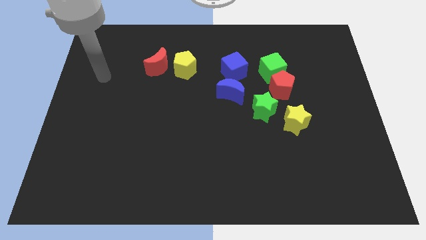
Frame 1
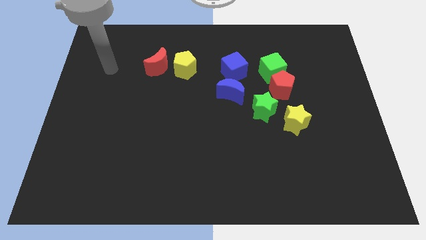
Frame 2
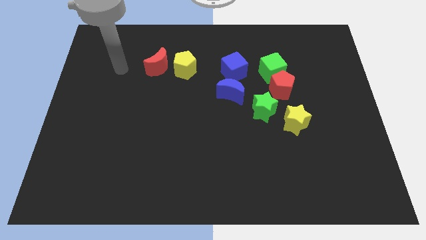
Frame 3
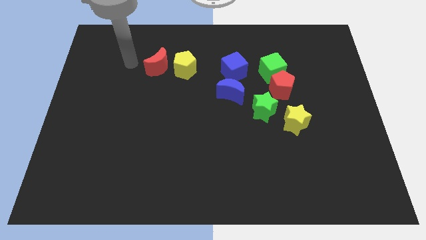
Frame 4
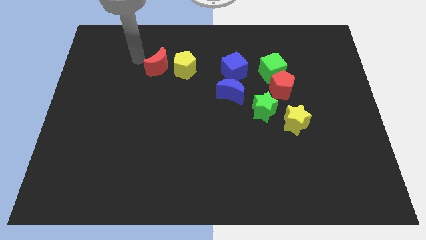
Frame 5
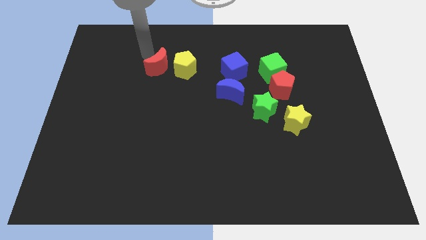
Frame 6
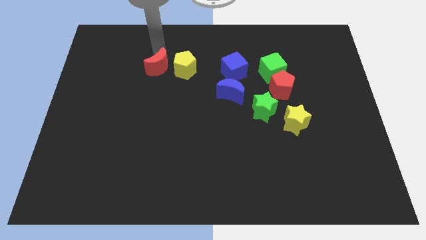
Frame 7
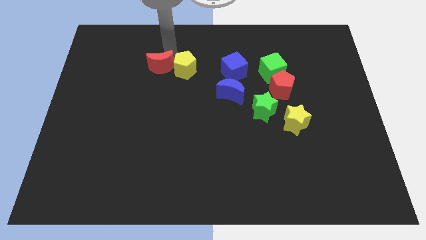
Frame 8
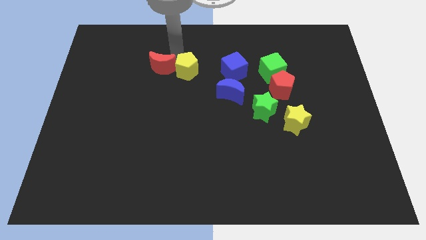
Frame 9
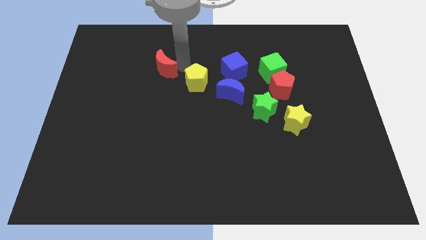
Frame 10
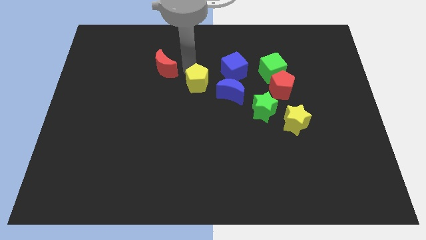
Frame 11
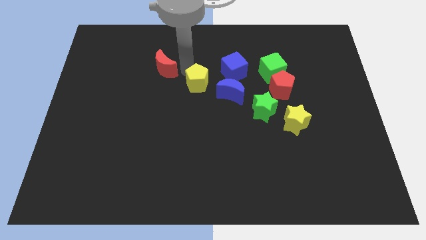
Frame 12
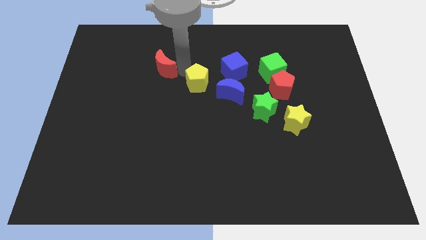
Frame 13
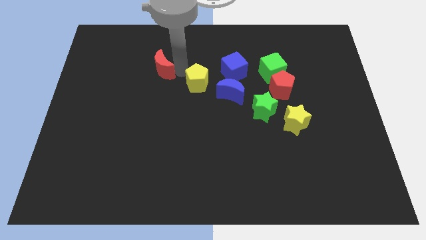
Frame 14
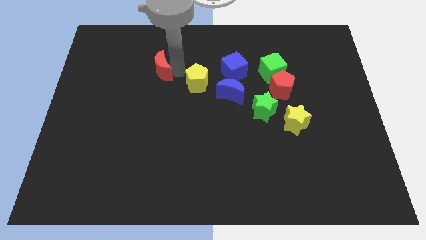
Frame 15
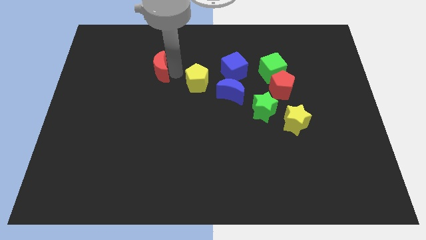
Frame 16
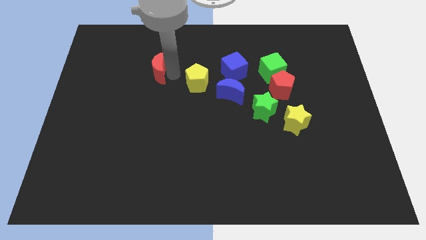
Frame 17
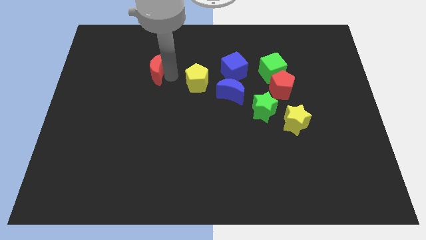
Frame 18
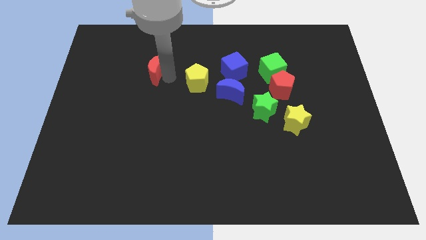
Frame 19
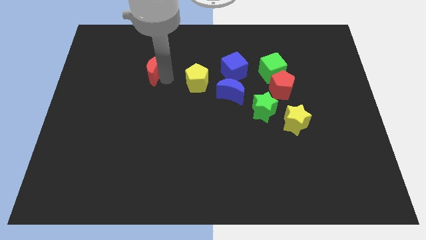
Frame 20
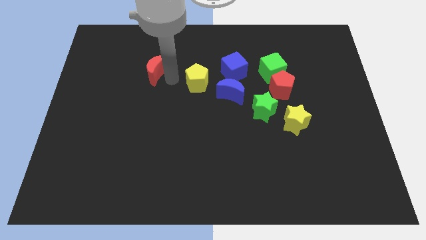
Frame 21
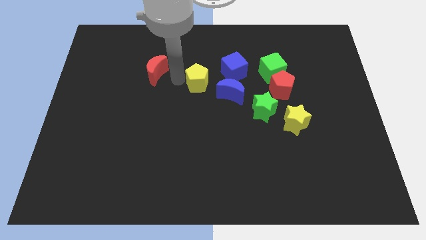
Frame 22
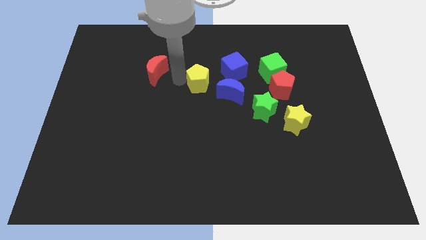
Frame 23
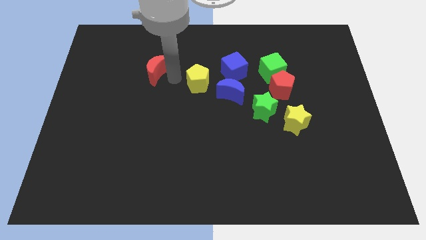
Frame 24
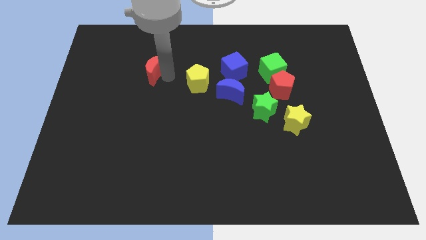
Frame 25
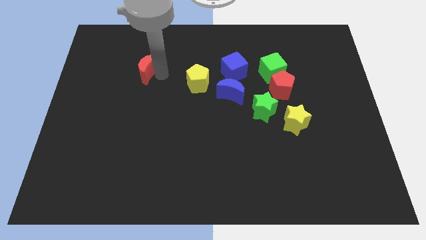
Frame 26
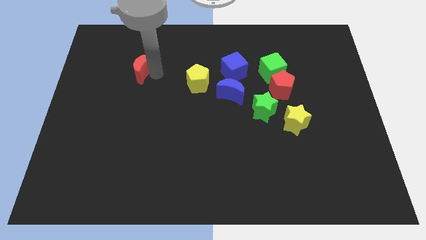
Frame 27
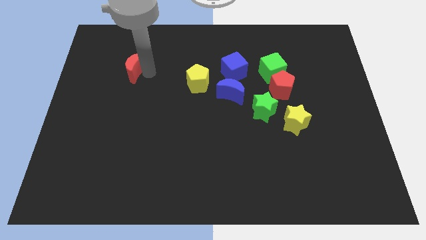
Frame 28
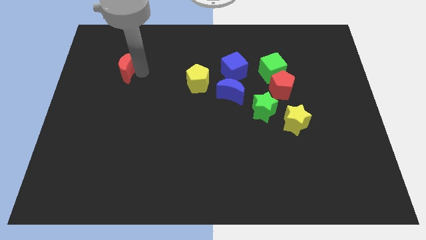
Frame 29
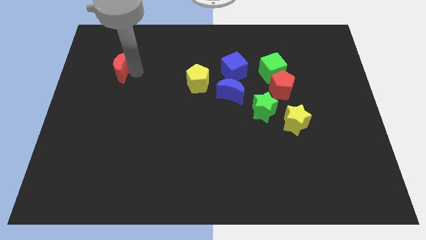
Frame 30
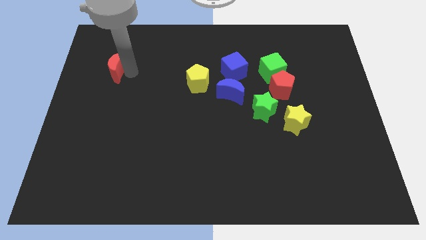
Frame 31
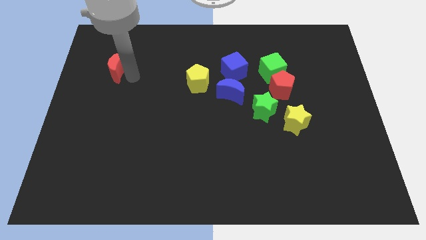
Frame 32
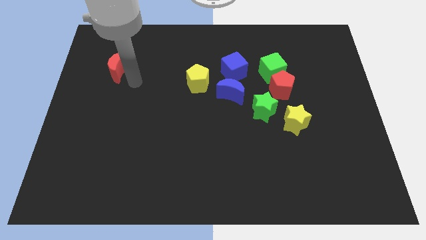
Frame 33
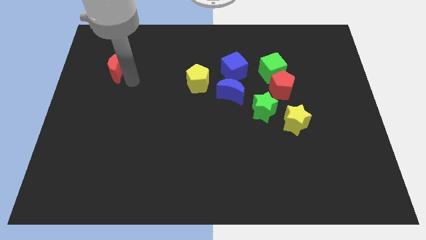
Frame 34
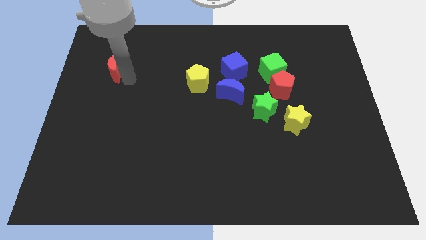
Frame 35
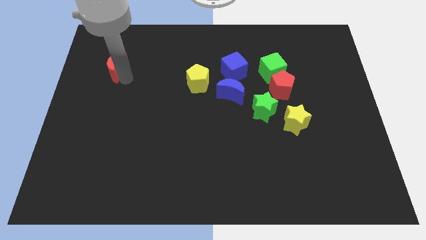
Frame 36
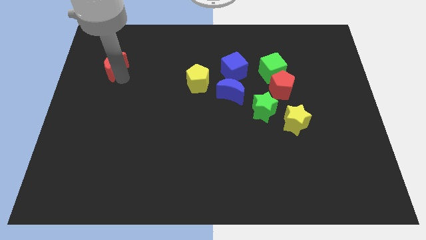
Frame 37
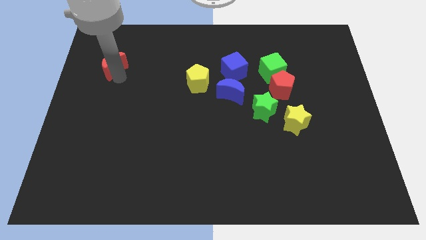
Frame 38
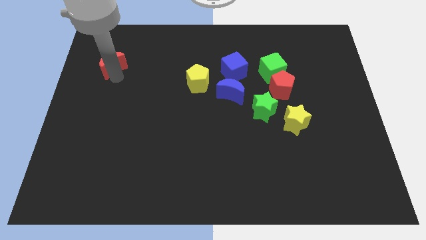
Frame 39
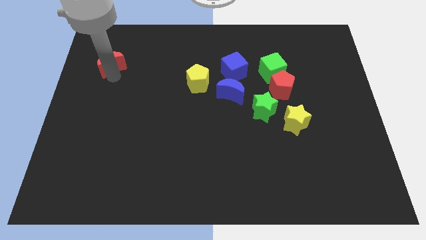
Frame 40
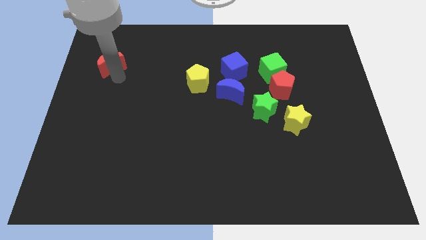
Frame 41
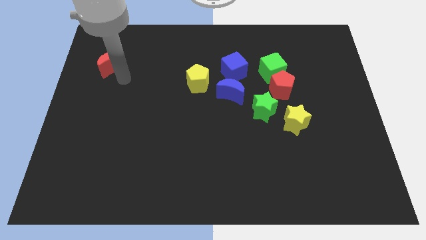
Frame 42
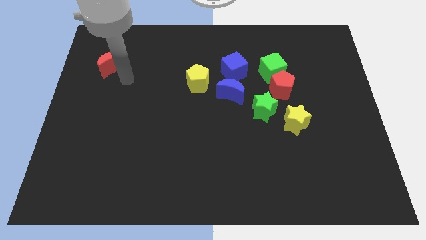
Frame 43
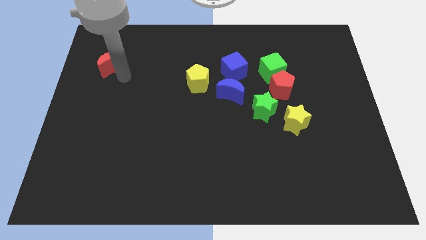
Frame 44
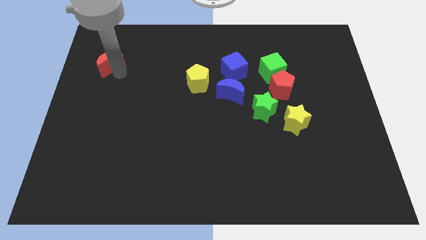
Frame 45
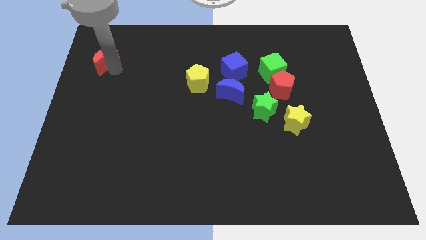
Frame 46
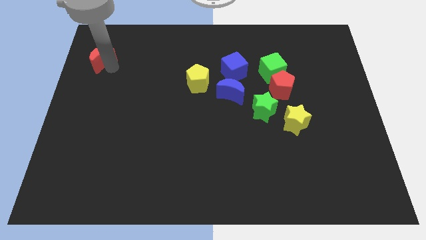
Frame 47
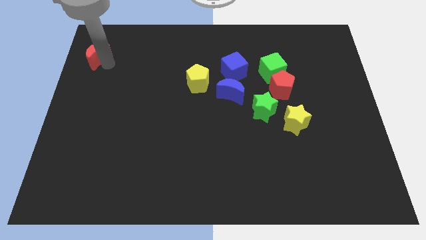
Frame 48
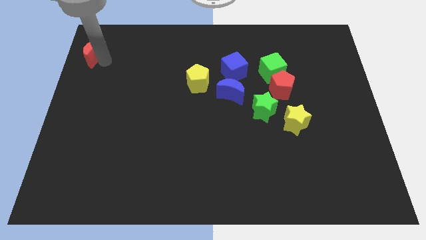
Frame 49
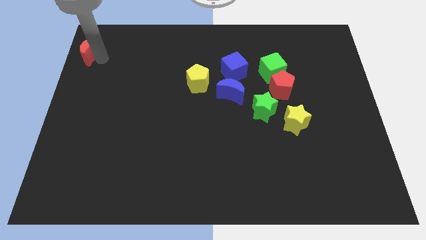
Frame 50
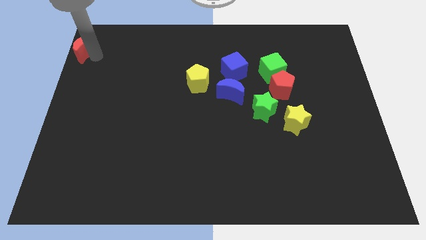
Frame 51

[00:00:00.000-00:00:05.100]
move the red moon to the top left corner

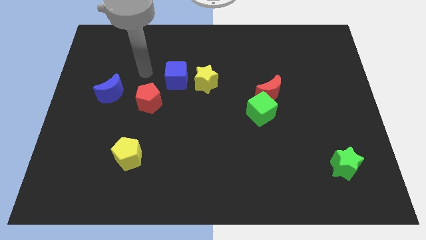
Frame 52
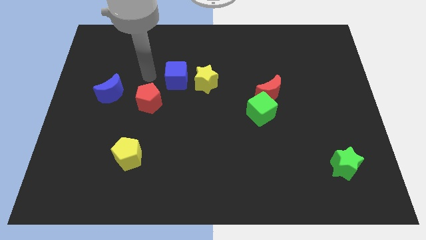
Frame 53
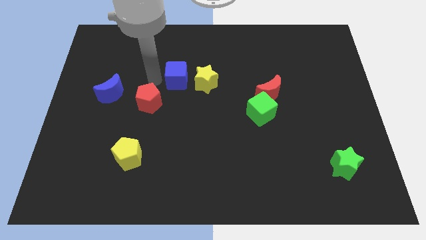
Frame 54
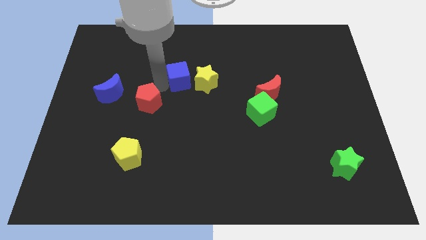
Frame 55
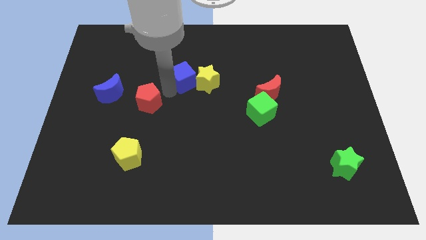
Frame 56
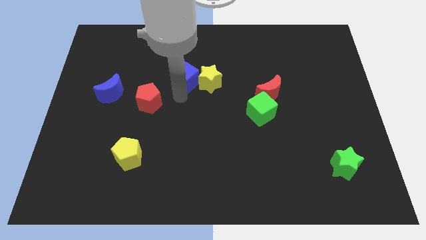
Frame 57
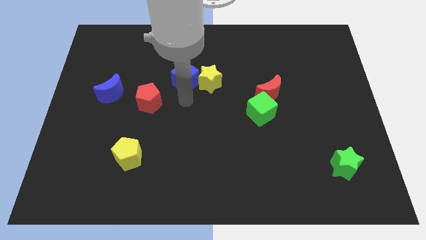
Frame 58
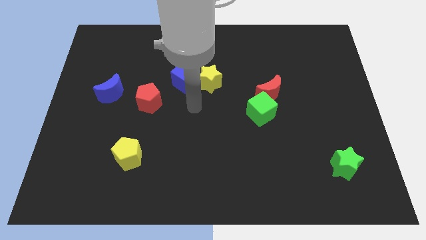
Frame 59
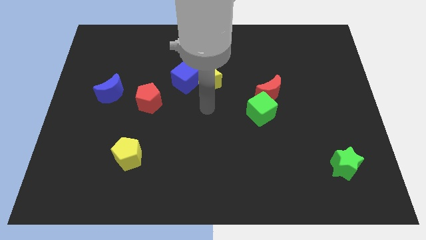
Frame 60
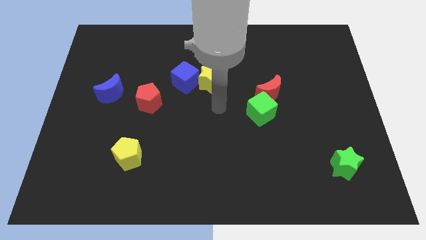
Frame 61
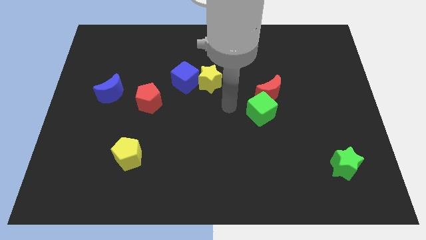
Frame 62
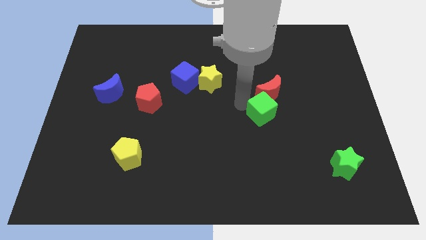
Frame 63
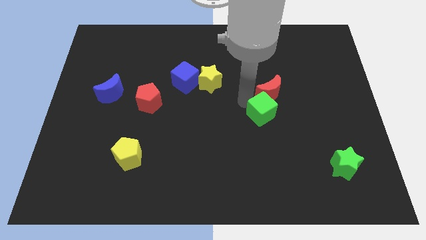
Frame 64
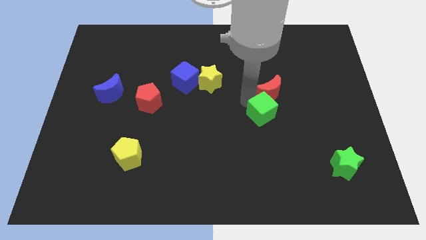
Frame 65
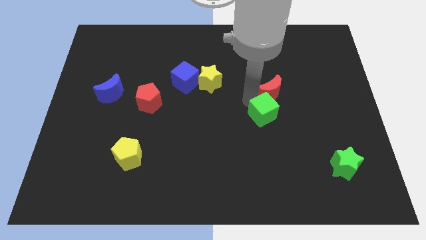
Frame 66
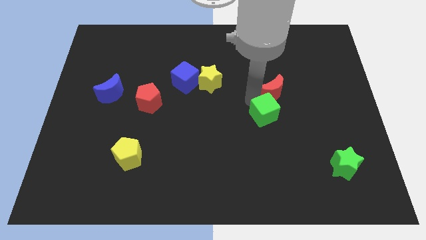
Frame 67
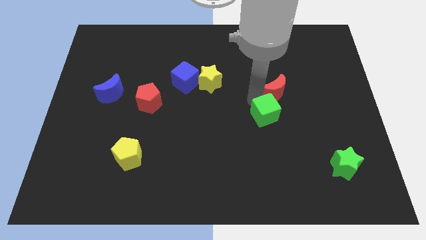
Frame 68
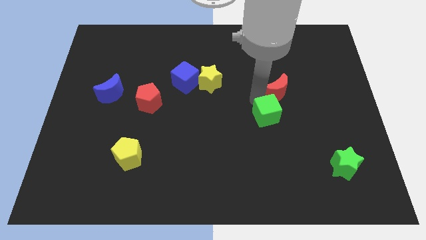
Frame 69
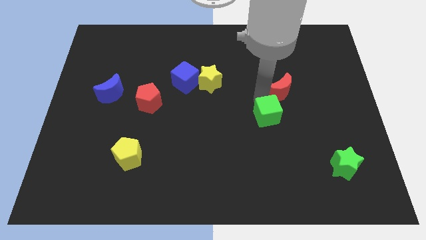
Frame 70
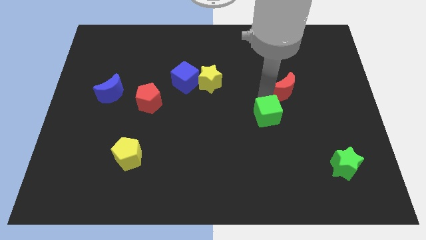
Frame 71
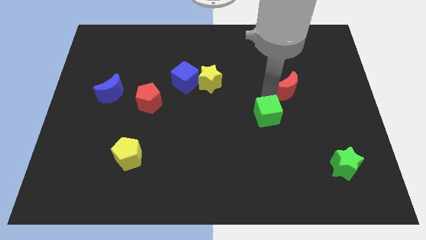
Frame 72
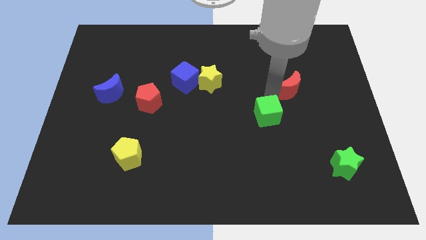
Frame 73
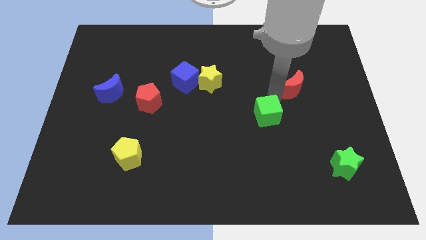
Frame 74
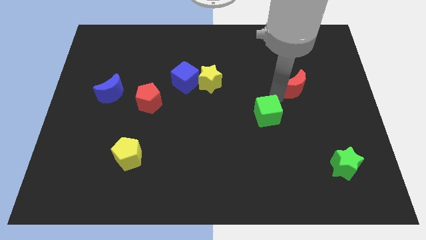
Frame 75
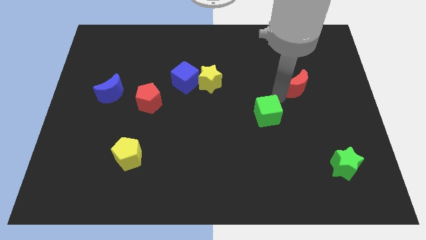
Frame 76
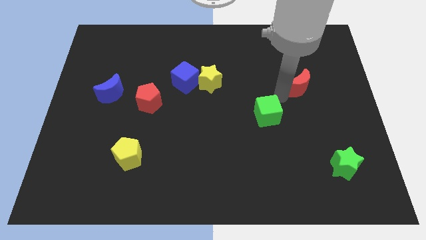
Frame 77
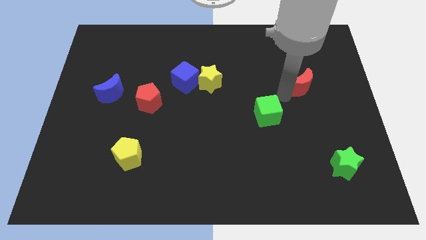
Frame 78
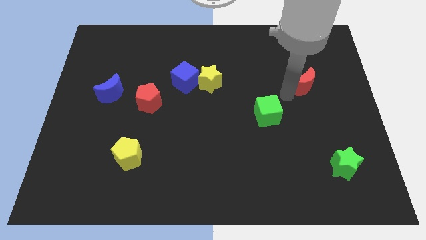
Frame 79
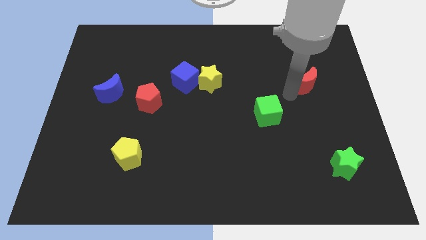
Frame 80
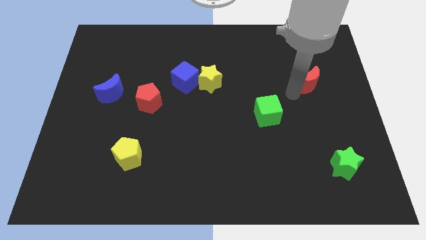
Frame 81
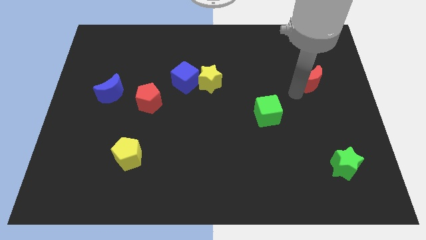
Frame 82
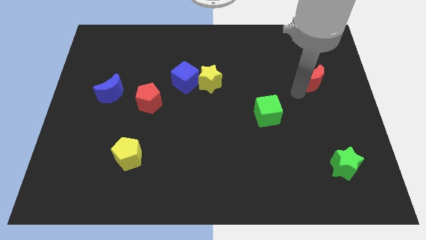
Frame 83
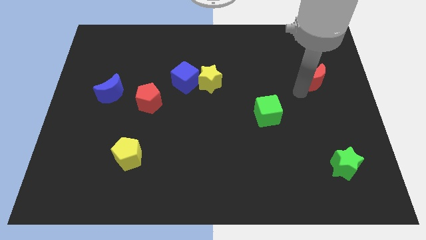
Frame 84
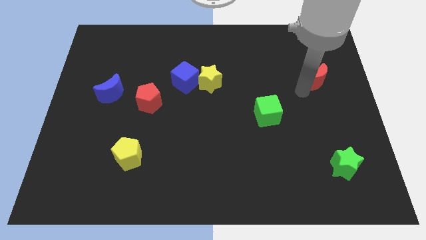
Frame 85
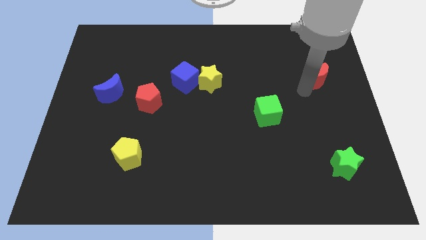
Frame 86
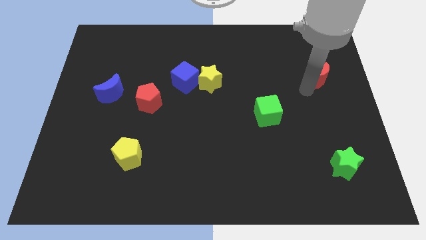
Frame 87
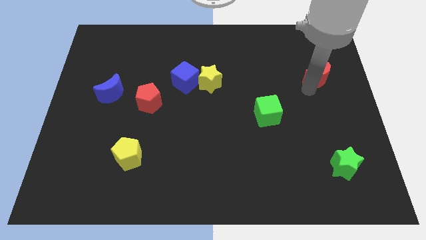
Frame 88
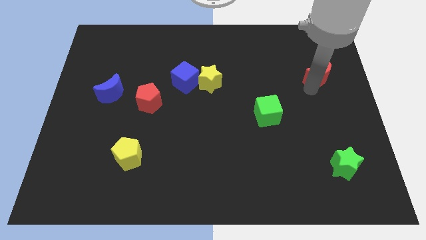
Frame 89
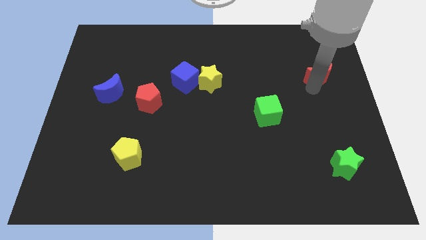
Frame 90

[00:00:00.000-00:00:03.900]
push the red moon to the right side of the board
